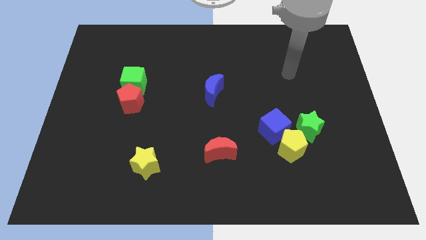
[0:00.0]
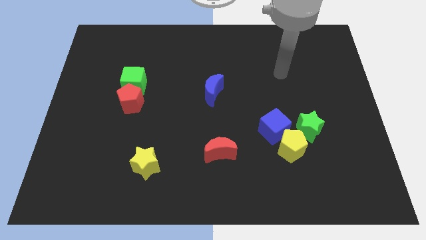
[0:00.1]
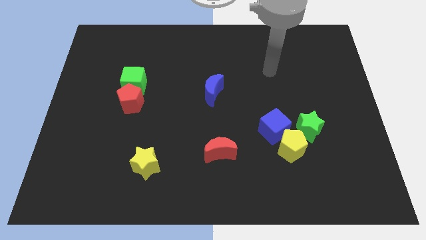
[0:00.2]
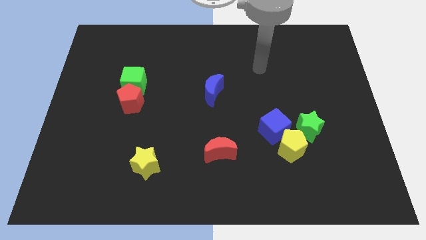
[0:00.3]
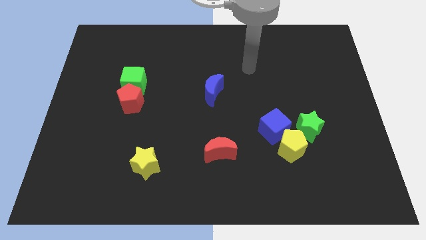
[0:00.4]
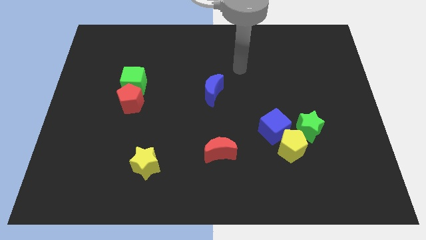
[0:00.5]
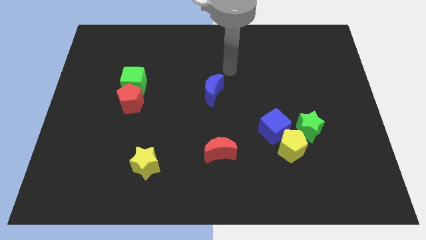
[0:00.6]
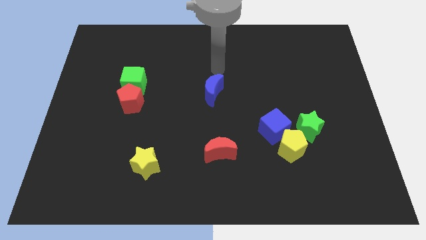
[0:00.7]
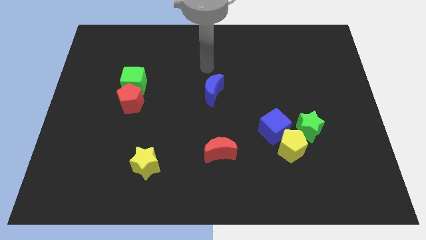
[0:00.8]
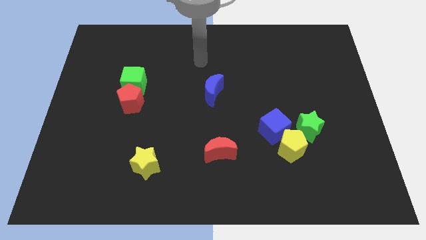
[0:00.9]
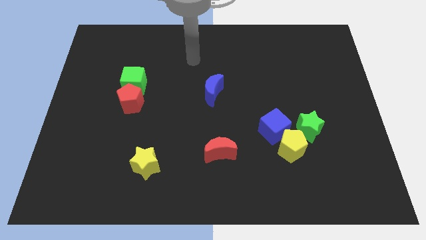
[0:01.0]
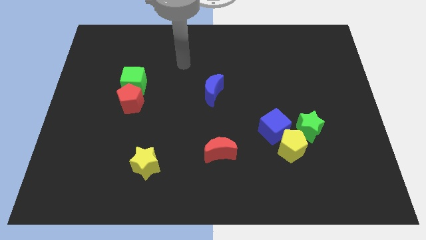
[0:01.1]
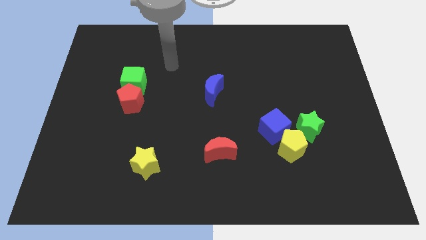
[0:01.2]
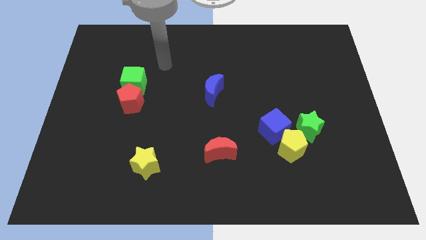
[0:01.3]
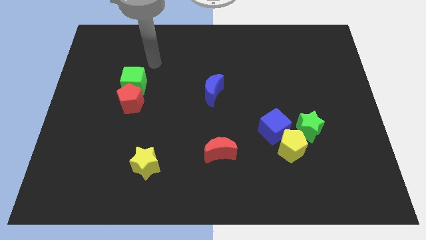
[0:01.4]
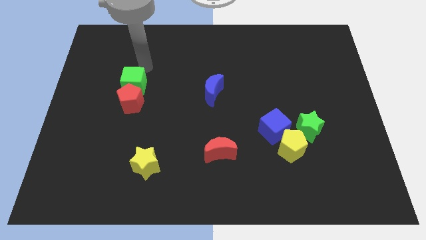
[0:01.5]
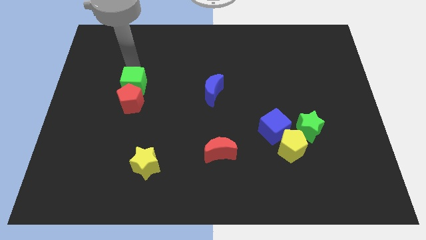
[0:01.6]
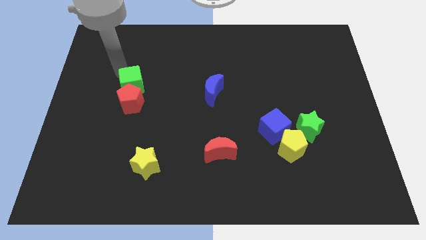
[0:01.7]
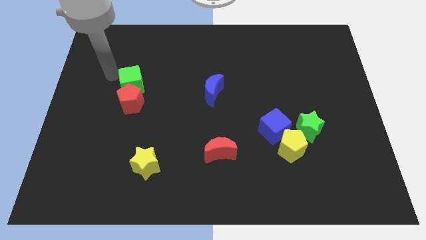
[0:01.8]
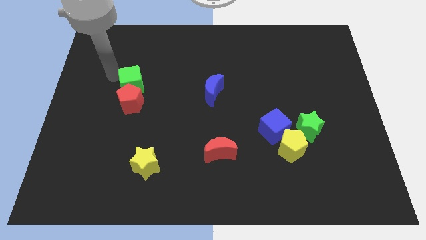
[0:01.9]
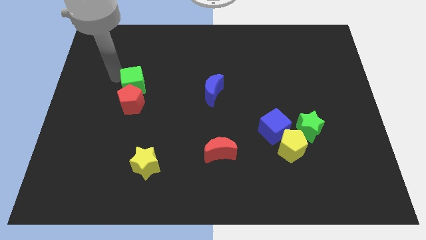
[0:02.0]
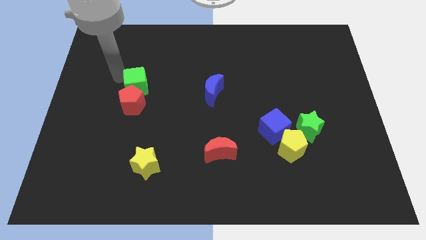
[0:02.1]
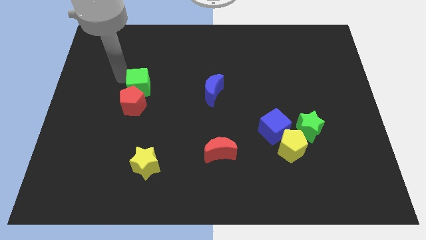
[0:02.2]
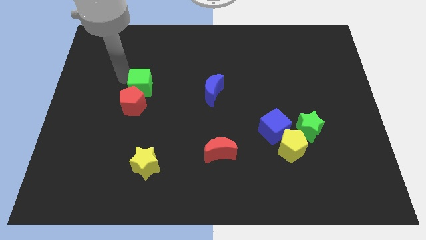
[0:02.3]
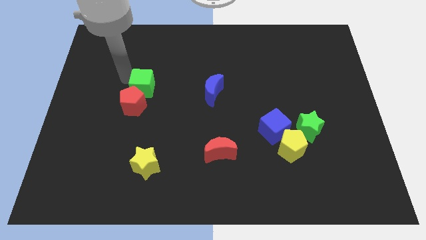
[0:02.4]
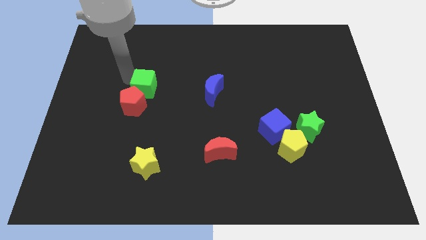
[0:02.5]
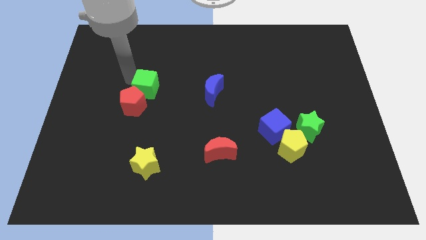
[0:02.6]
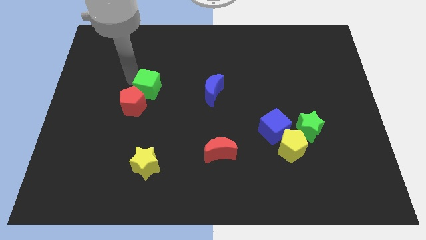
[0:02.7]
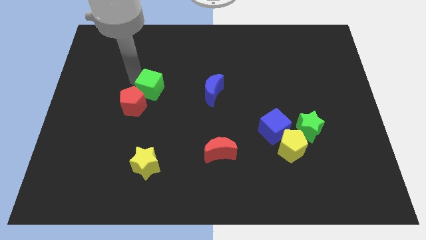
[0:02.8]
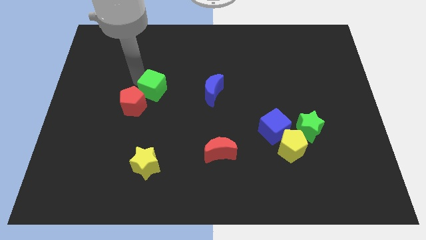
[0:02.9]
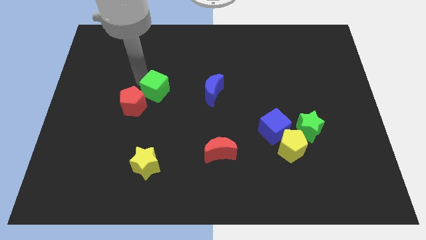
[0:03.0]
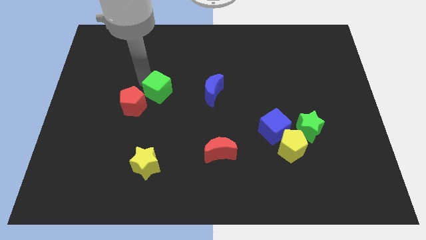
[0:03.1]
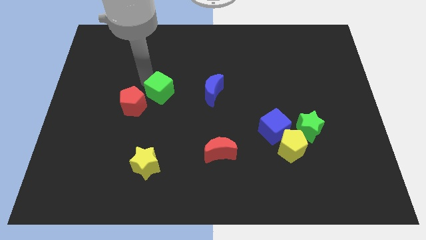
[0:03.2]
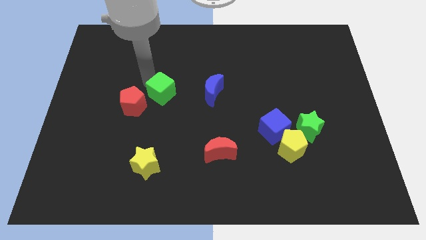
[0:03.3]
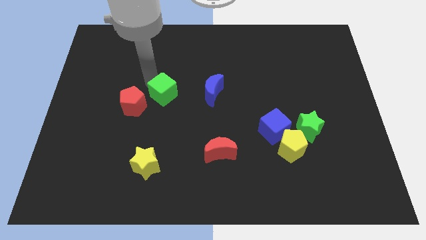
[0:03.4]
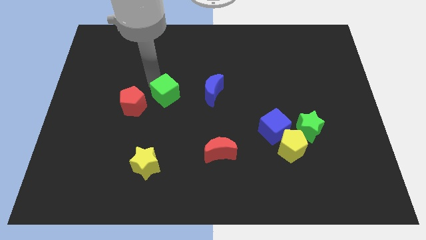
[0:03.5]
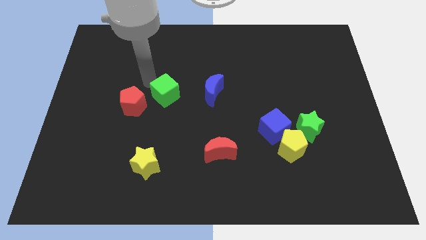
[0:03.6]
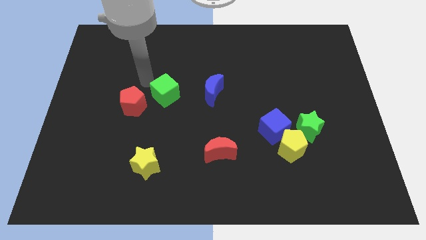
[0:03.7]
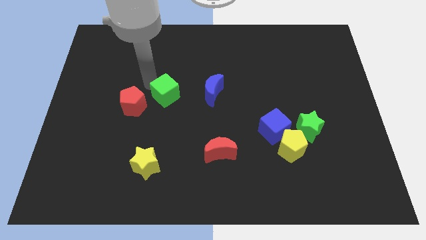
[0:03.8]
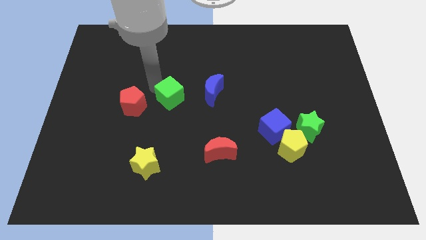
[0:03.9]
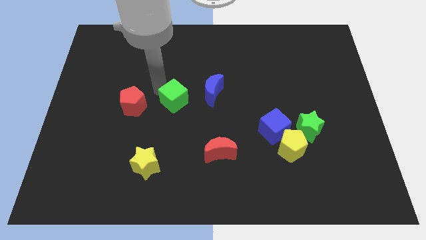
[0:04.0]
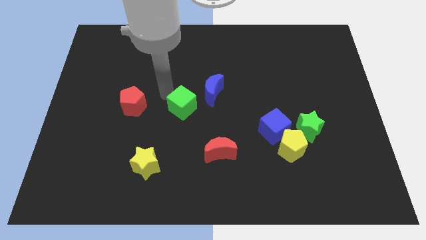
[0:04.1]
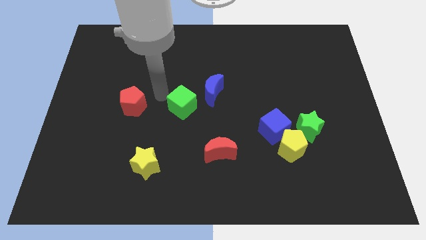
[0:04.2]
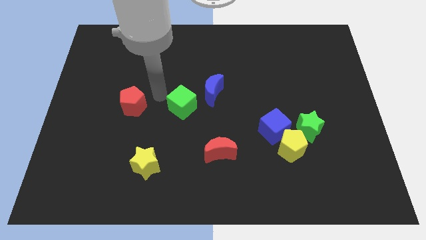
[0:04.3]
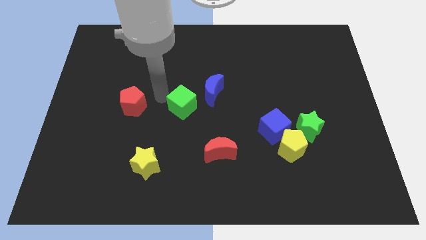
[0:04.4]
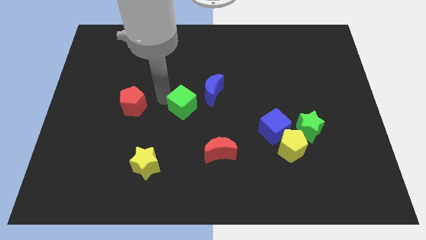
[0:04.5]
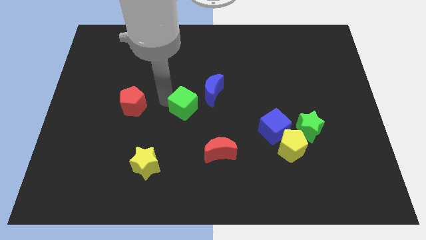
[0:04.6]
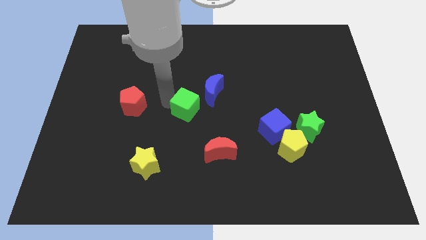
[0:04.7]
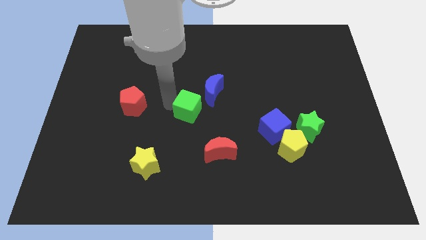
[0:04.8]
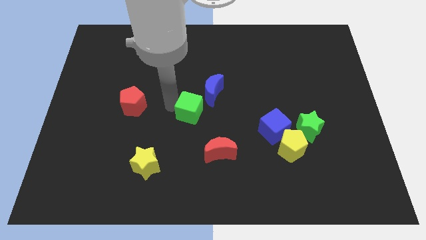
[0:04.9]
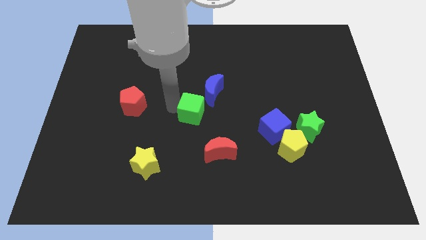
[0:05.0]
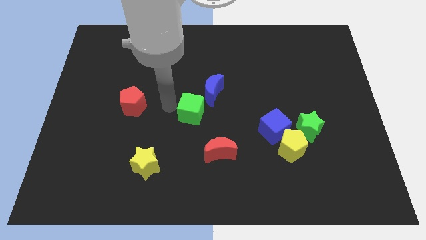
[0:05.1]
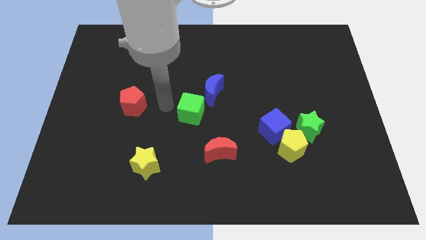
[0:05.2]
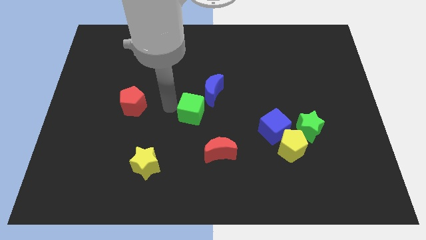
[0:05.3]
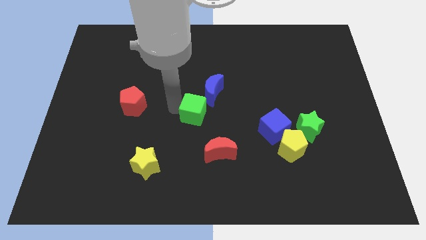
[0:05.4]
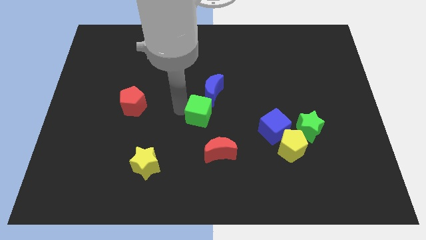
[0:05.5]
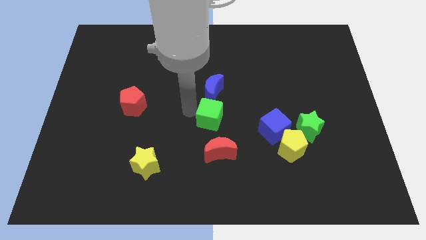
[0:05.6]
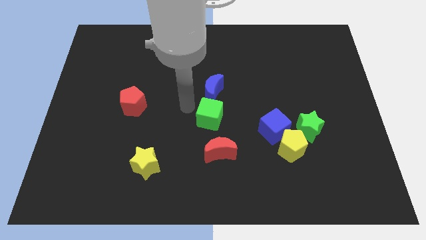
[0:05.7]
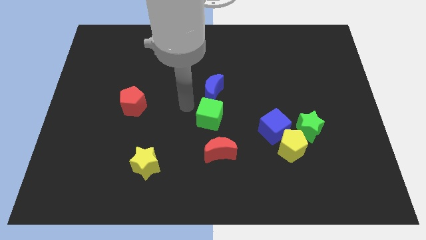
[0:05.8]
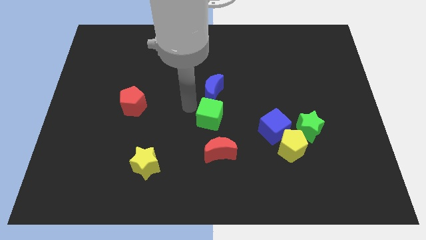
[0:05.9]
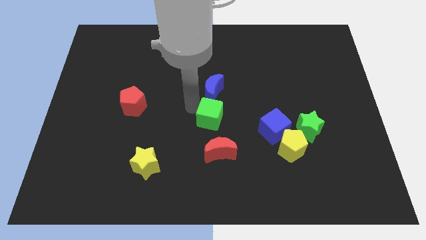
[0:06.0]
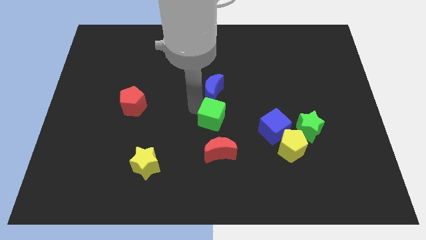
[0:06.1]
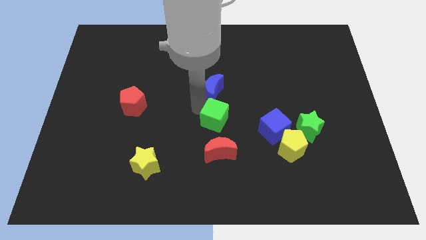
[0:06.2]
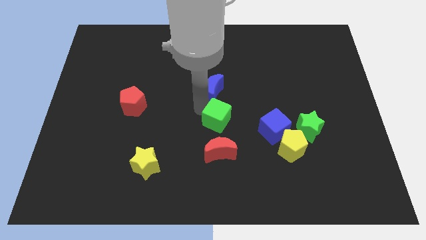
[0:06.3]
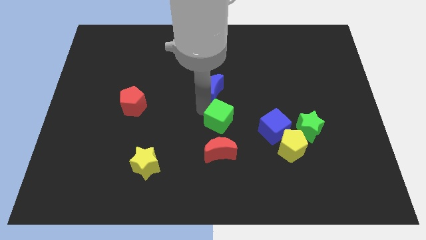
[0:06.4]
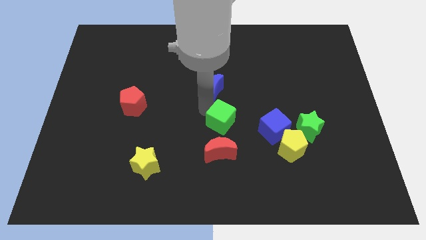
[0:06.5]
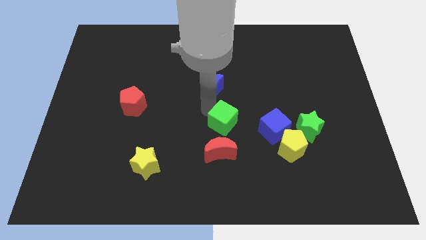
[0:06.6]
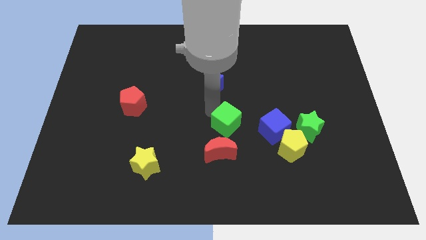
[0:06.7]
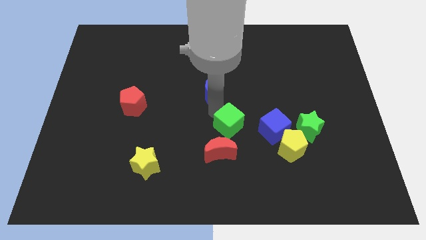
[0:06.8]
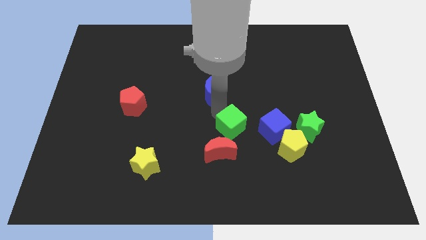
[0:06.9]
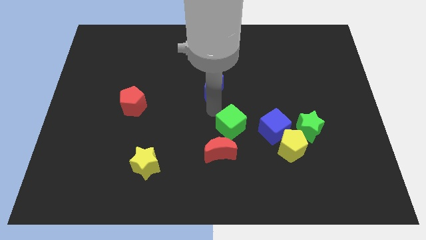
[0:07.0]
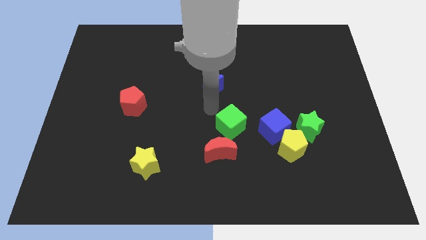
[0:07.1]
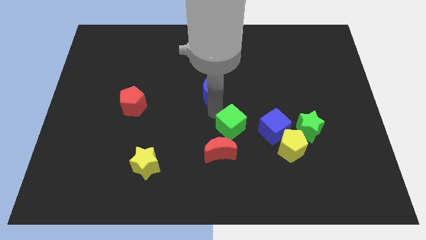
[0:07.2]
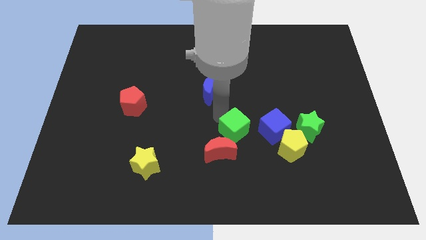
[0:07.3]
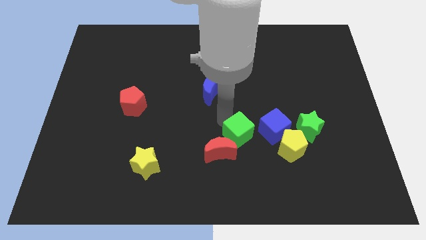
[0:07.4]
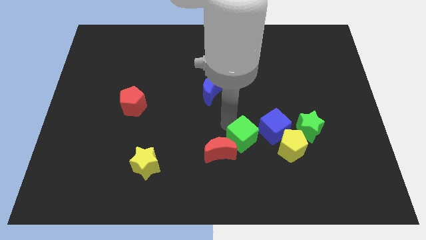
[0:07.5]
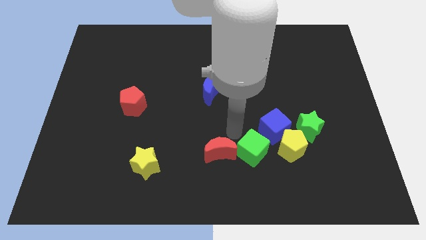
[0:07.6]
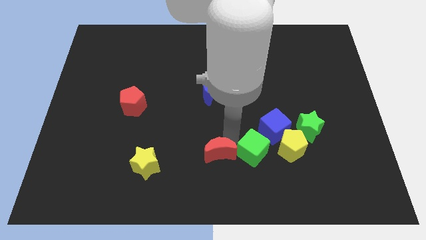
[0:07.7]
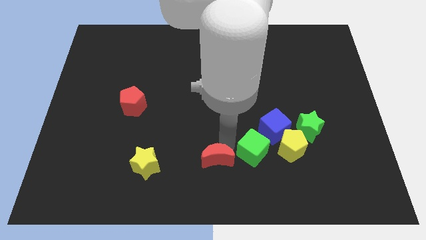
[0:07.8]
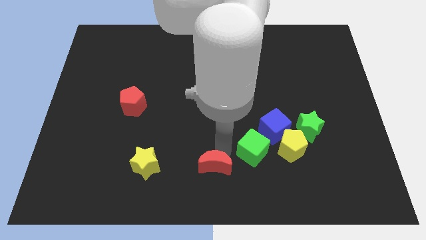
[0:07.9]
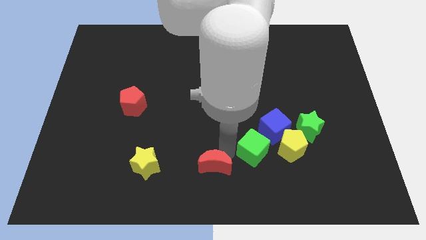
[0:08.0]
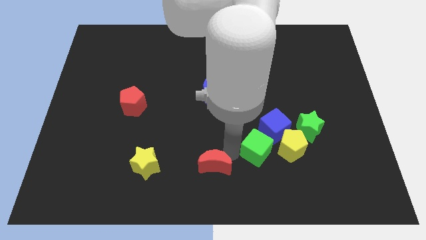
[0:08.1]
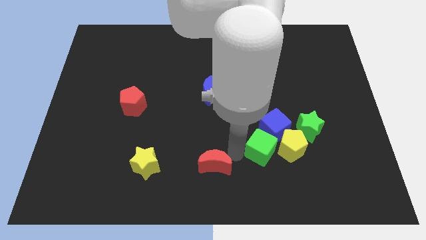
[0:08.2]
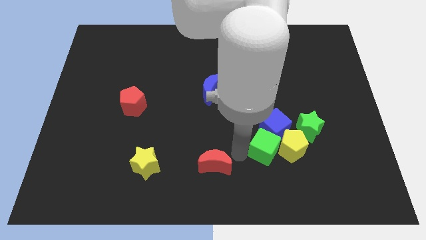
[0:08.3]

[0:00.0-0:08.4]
move the green cube next to the yellow pentagon
